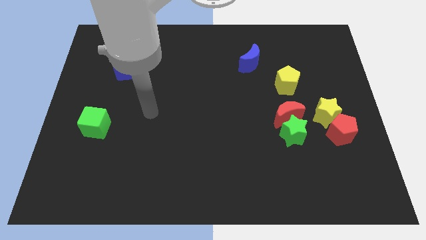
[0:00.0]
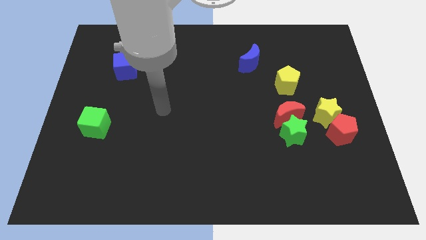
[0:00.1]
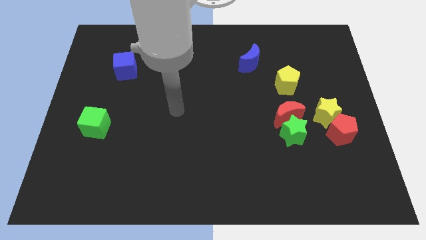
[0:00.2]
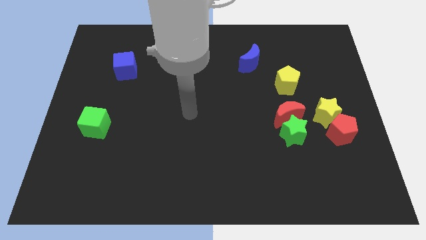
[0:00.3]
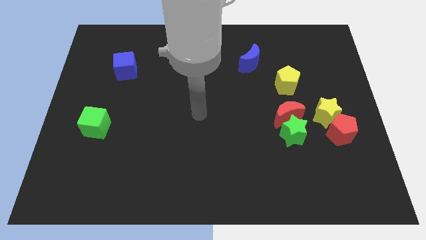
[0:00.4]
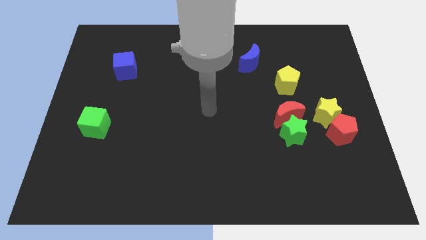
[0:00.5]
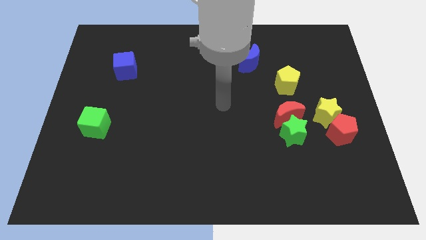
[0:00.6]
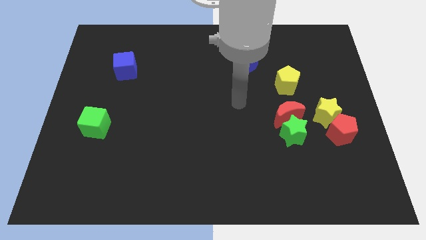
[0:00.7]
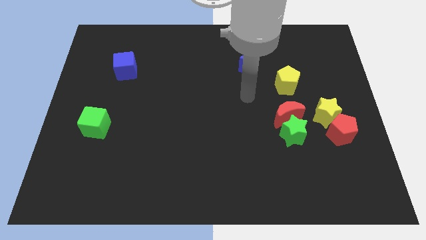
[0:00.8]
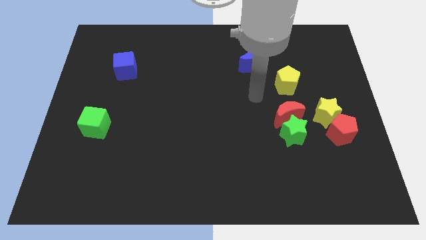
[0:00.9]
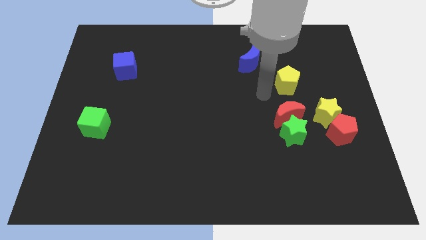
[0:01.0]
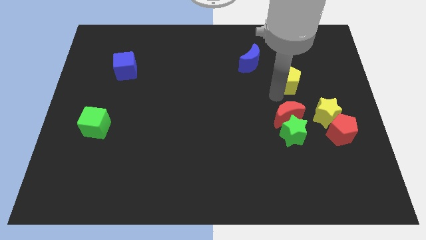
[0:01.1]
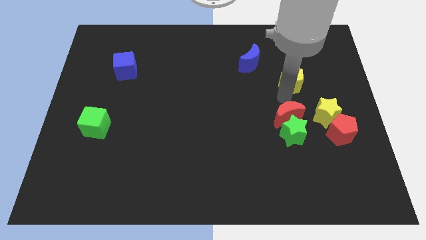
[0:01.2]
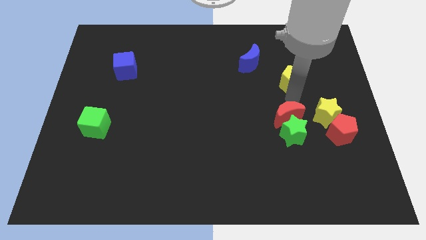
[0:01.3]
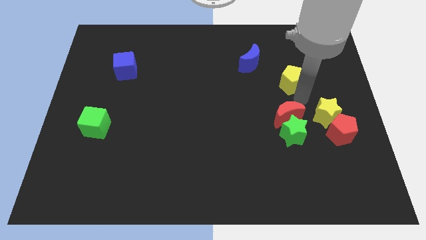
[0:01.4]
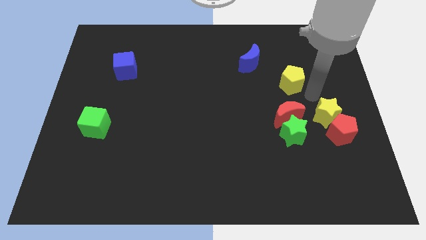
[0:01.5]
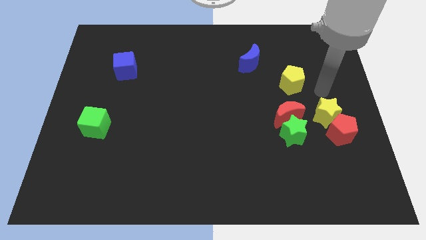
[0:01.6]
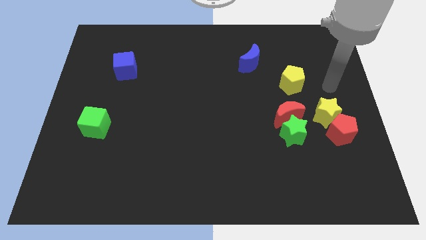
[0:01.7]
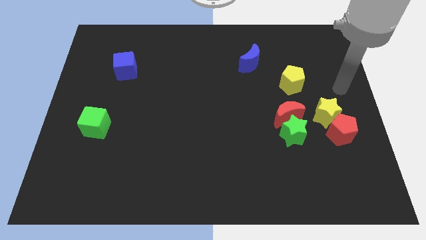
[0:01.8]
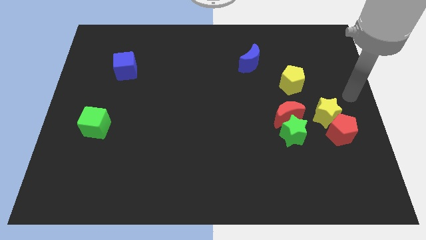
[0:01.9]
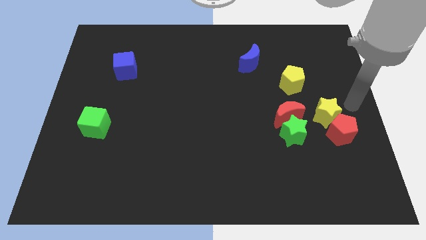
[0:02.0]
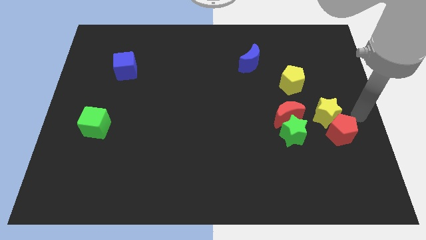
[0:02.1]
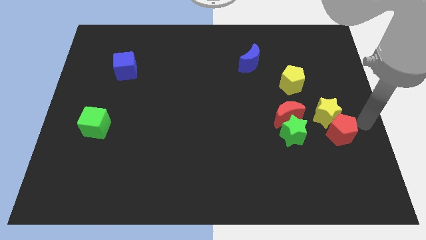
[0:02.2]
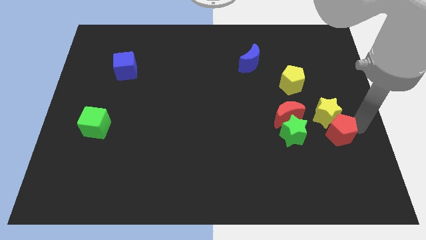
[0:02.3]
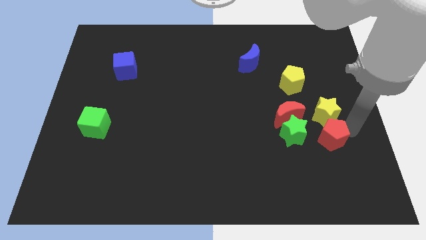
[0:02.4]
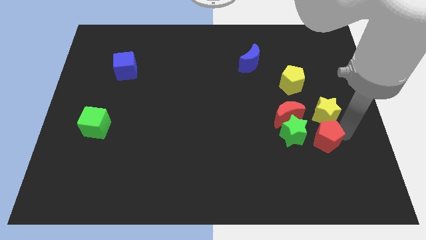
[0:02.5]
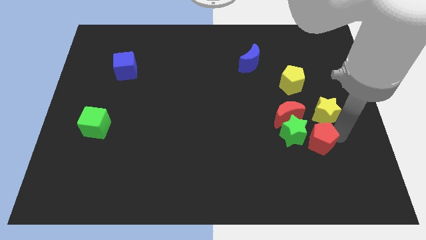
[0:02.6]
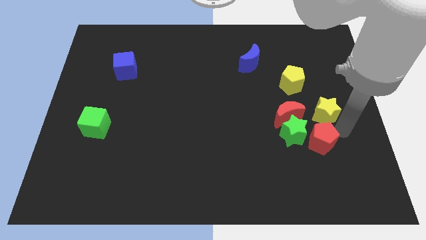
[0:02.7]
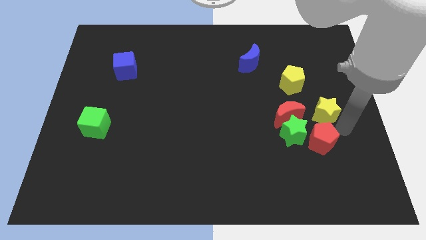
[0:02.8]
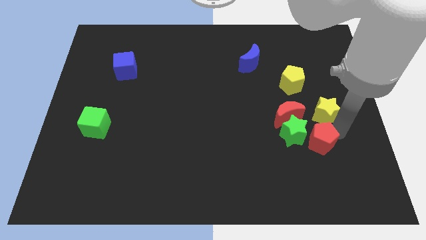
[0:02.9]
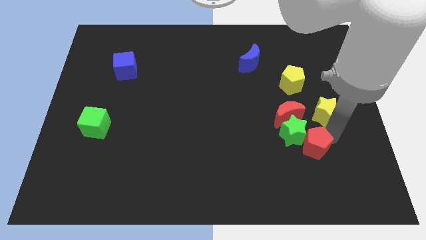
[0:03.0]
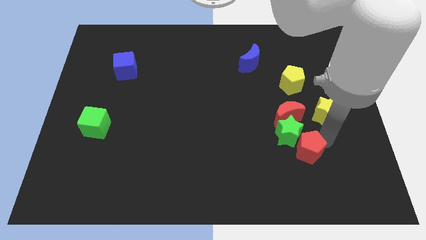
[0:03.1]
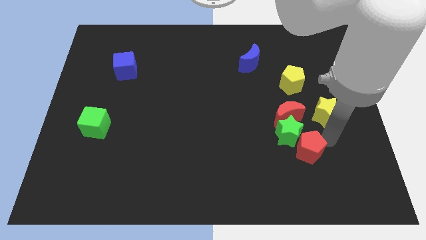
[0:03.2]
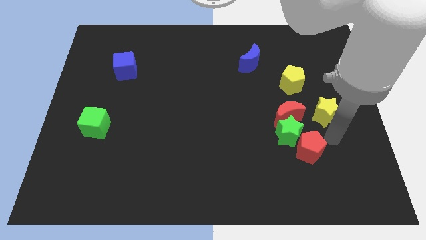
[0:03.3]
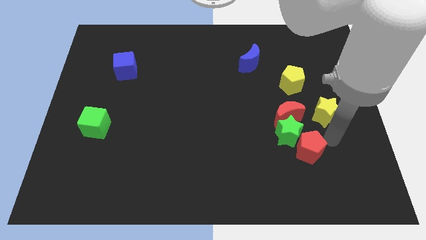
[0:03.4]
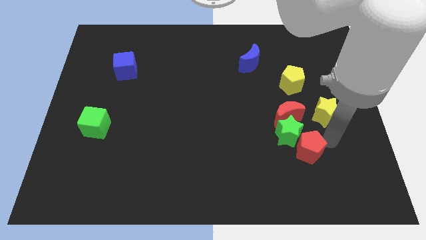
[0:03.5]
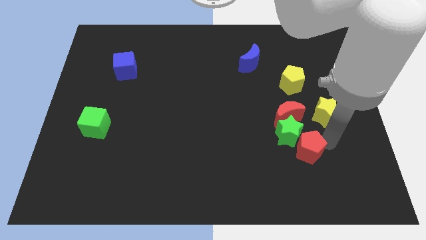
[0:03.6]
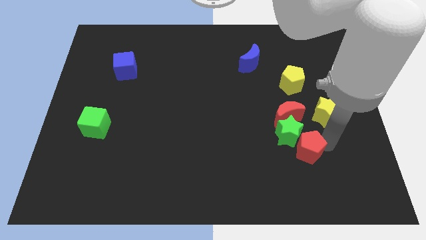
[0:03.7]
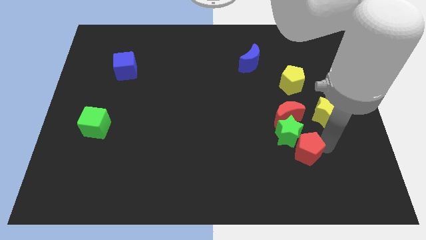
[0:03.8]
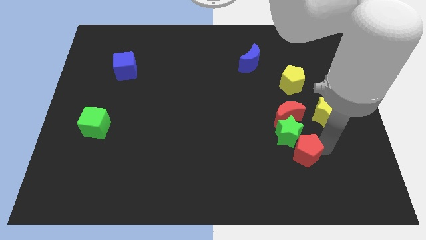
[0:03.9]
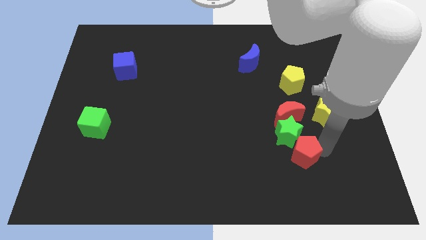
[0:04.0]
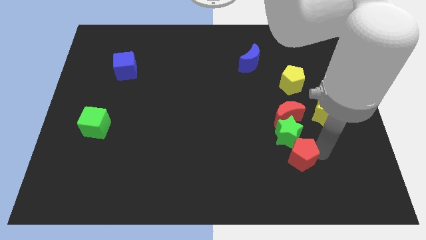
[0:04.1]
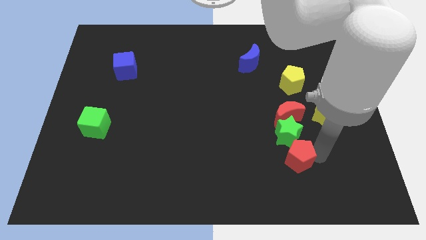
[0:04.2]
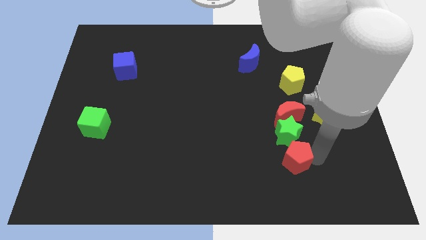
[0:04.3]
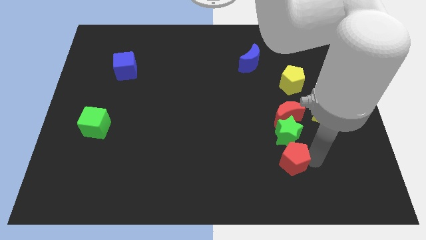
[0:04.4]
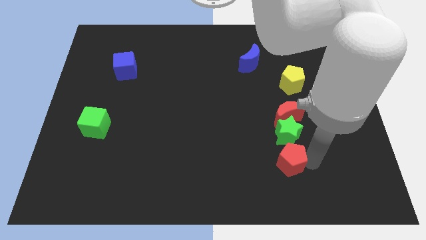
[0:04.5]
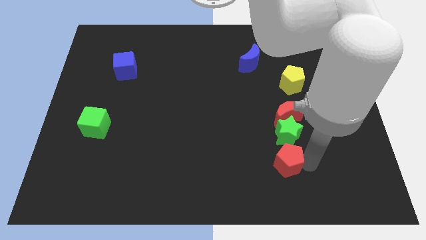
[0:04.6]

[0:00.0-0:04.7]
put the red pentagon to the bottom left side of the green star

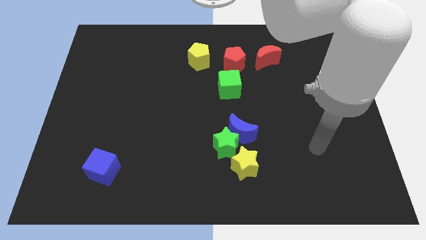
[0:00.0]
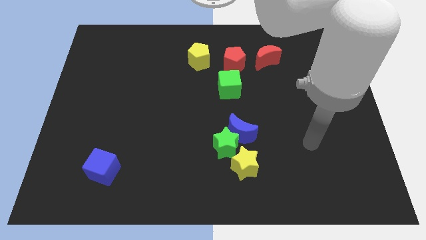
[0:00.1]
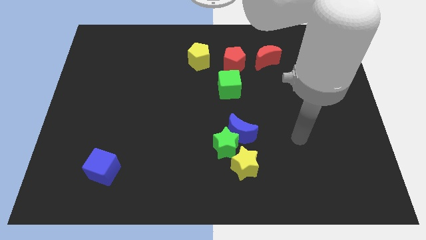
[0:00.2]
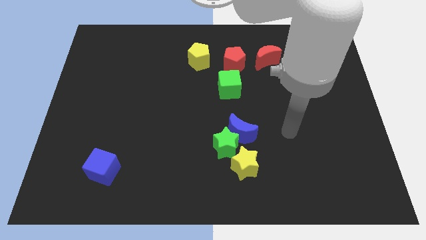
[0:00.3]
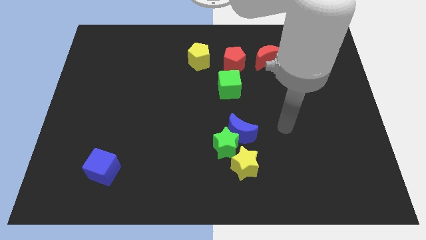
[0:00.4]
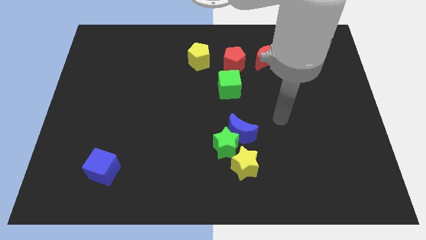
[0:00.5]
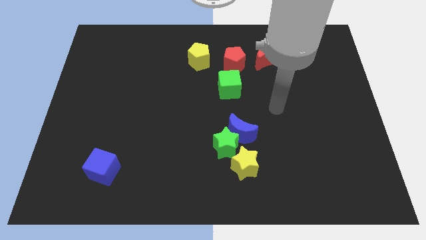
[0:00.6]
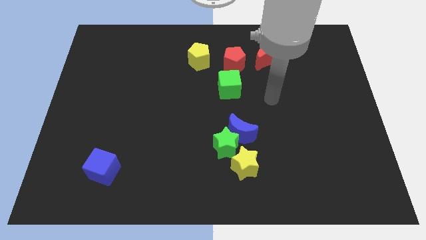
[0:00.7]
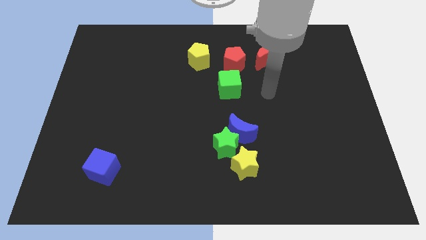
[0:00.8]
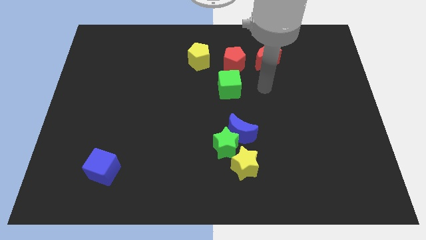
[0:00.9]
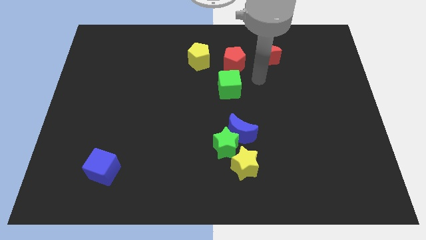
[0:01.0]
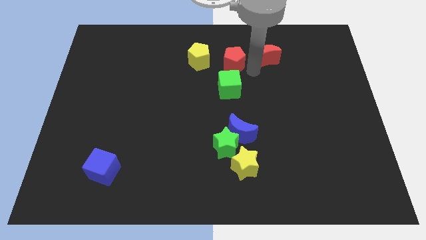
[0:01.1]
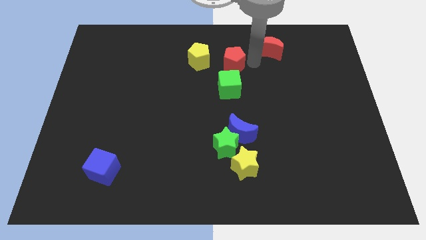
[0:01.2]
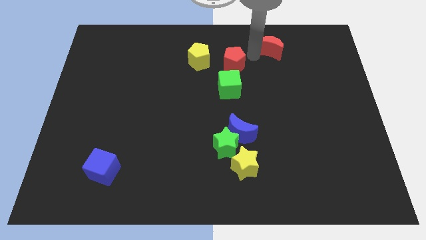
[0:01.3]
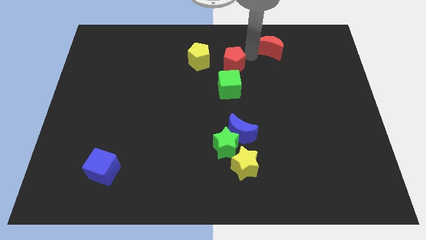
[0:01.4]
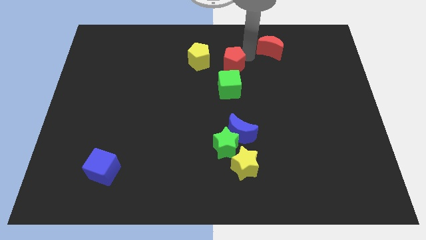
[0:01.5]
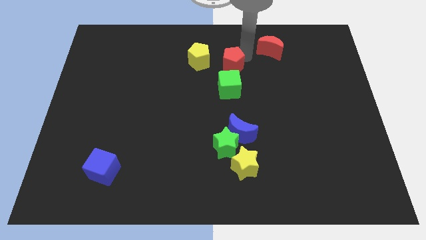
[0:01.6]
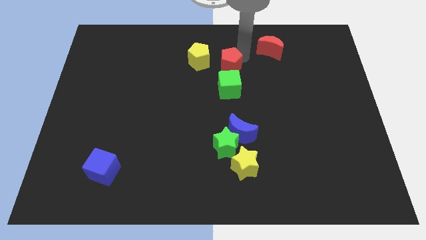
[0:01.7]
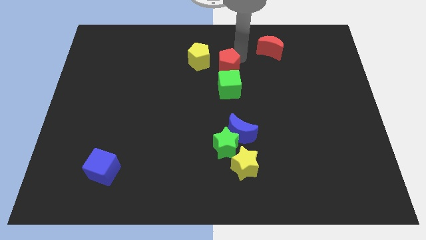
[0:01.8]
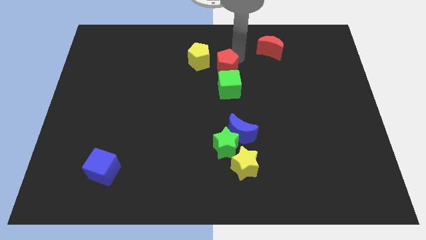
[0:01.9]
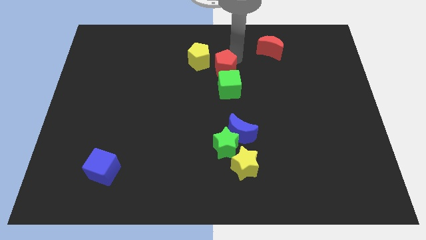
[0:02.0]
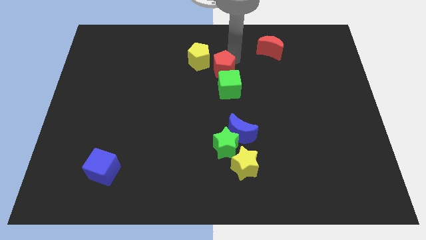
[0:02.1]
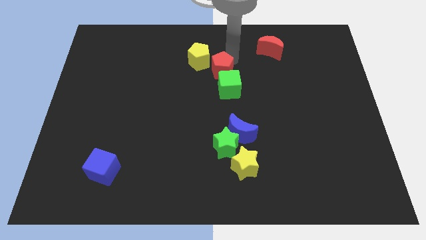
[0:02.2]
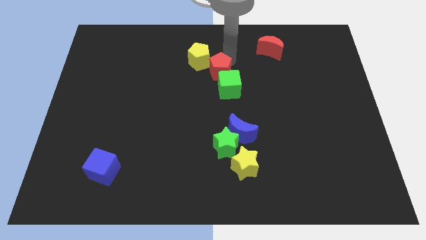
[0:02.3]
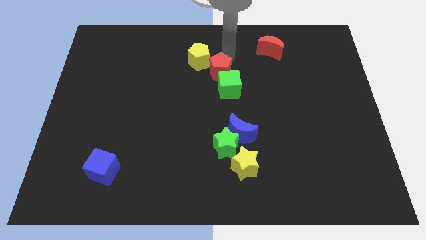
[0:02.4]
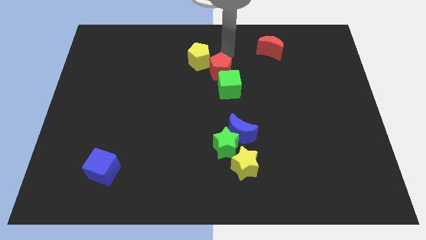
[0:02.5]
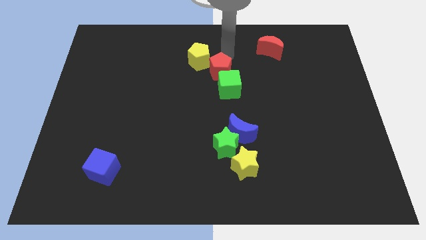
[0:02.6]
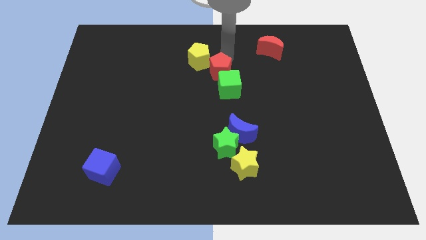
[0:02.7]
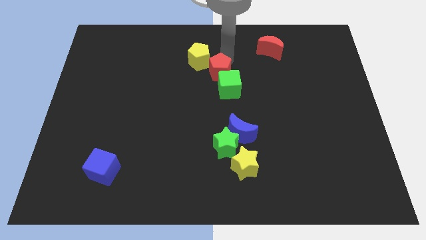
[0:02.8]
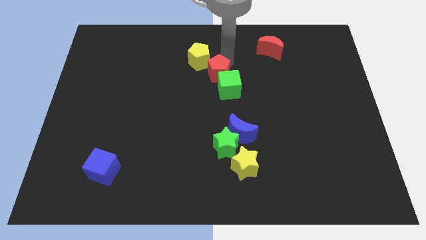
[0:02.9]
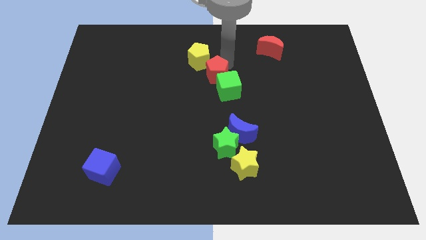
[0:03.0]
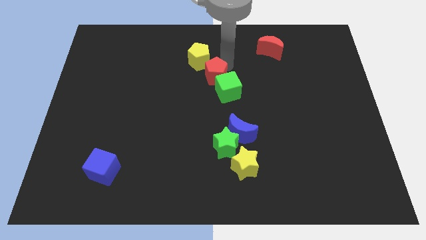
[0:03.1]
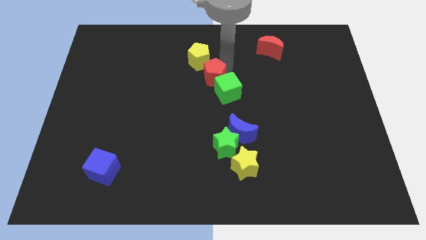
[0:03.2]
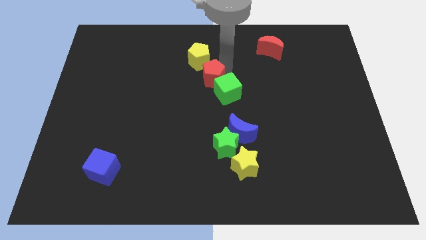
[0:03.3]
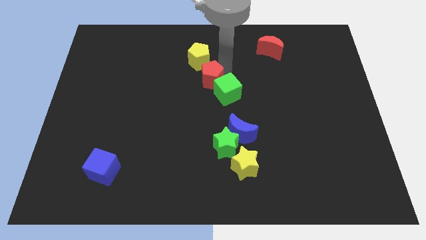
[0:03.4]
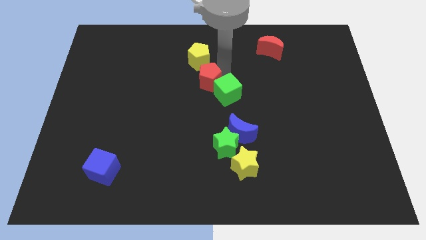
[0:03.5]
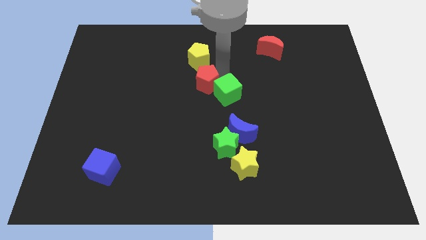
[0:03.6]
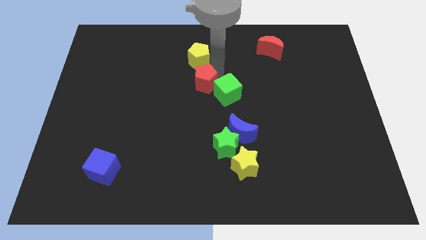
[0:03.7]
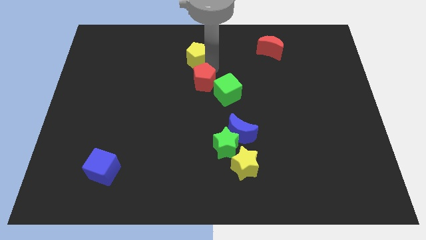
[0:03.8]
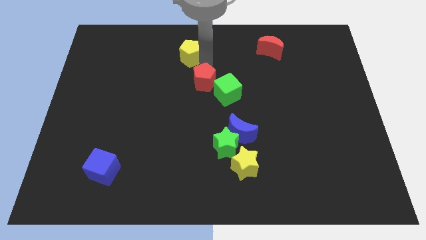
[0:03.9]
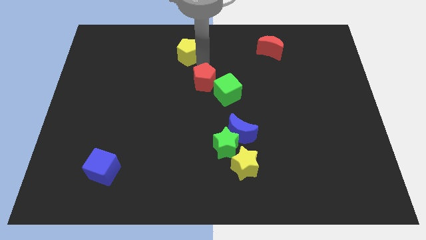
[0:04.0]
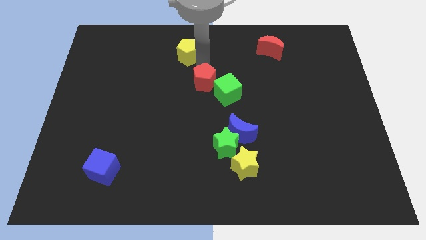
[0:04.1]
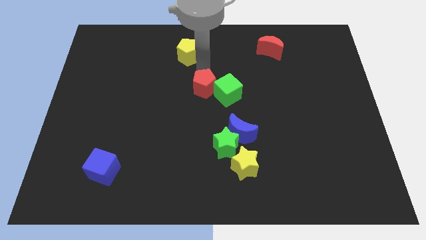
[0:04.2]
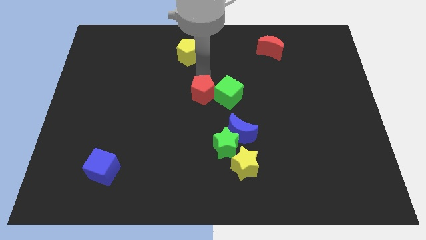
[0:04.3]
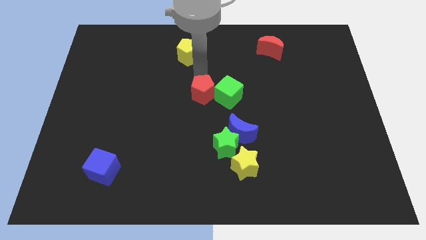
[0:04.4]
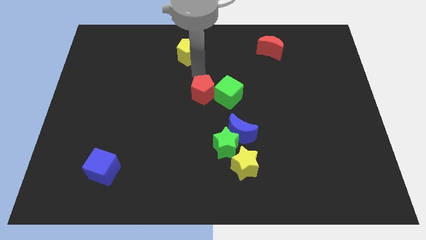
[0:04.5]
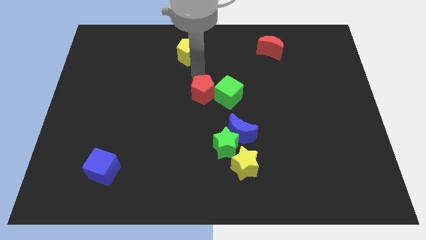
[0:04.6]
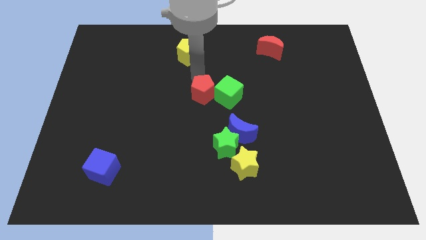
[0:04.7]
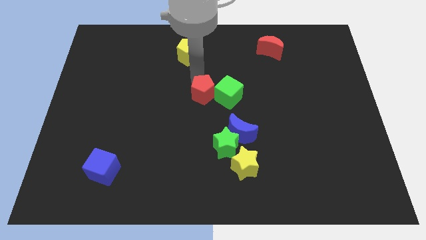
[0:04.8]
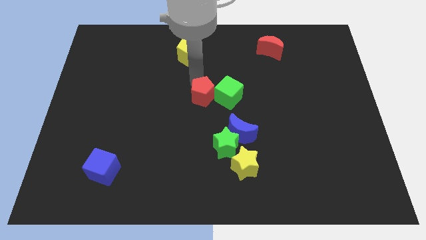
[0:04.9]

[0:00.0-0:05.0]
put the red pentagon diagonally down and to the left of the green cube
